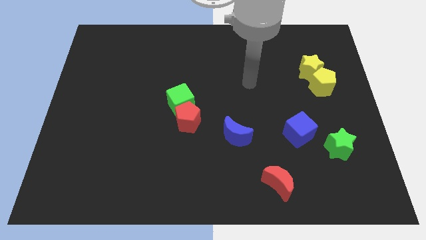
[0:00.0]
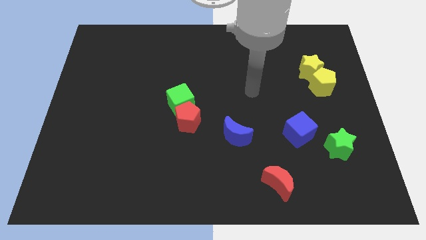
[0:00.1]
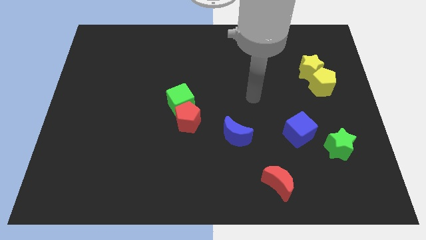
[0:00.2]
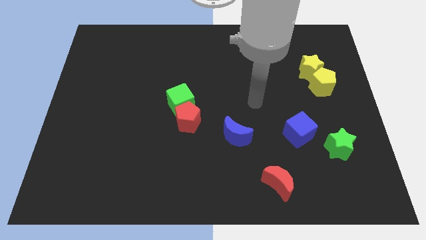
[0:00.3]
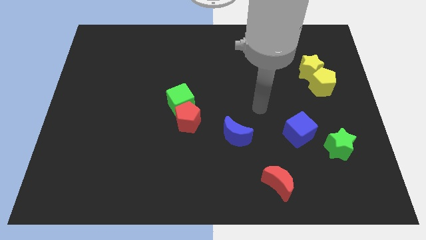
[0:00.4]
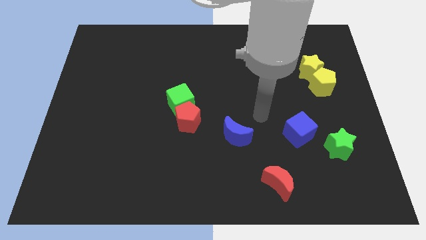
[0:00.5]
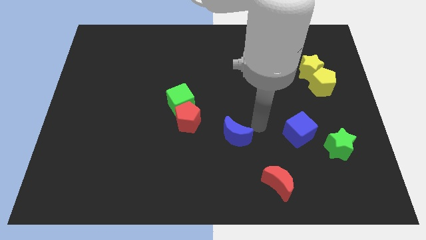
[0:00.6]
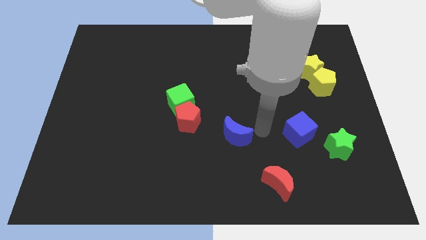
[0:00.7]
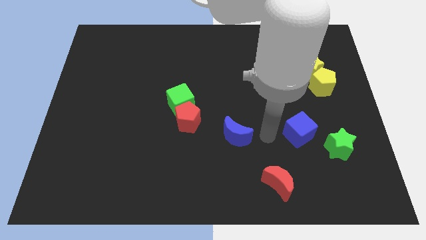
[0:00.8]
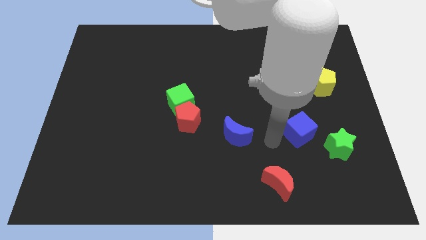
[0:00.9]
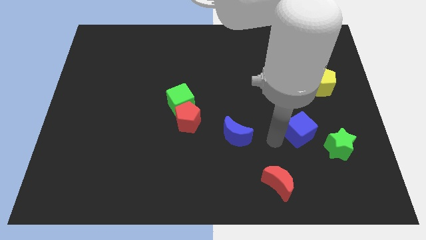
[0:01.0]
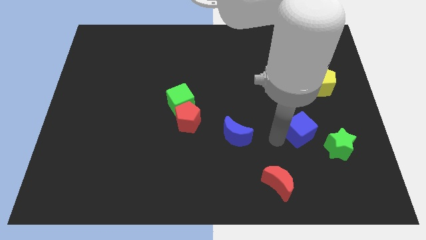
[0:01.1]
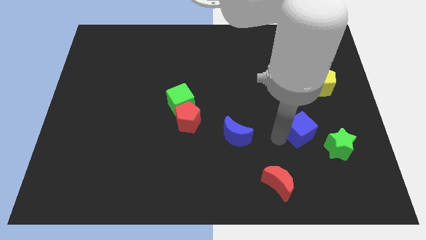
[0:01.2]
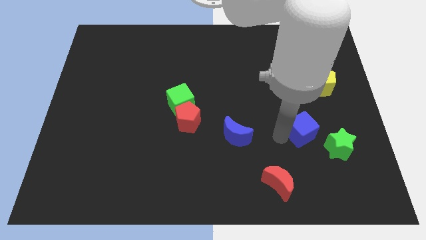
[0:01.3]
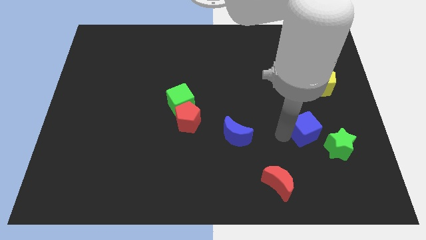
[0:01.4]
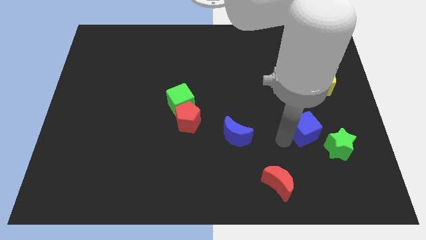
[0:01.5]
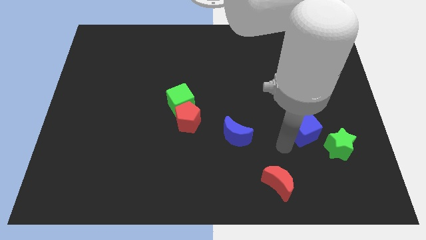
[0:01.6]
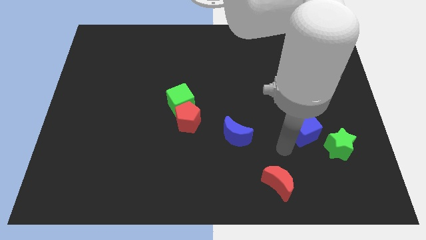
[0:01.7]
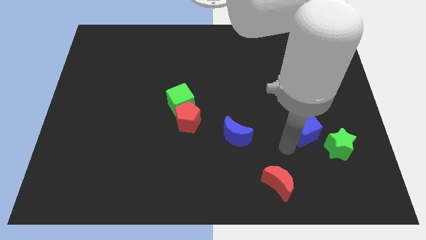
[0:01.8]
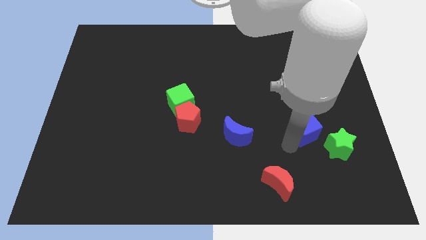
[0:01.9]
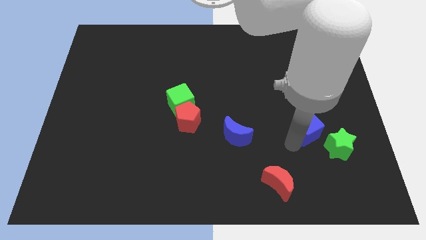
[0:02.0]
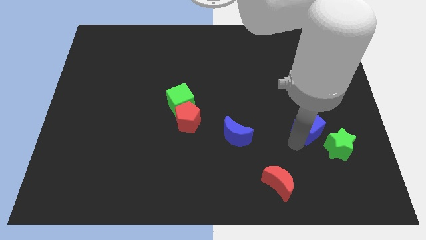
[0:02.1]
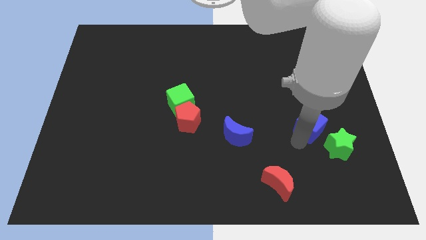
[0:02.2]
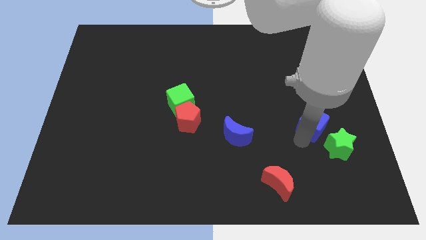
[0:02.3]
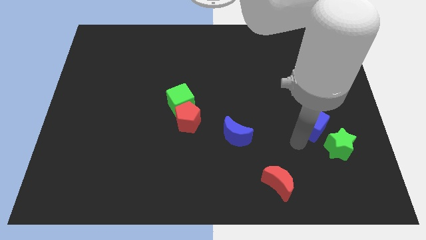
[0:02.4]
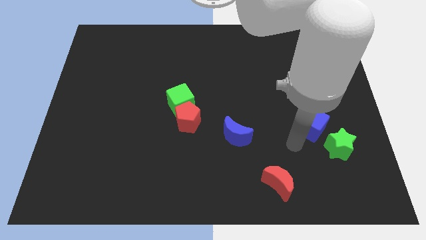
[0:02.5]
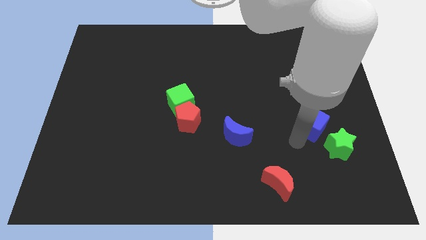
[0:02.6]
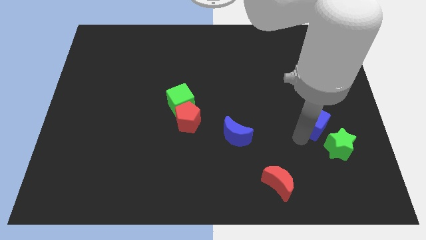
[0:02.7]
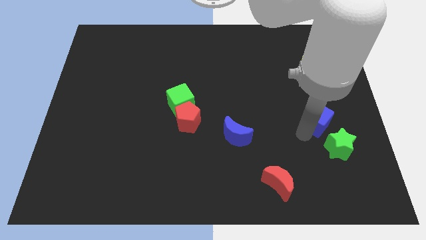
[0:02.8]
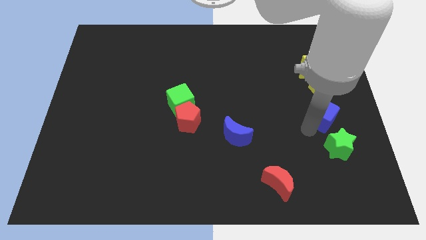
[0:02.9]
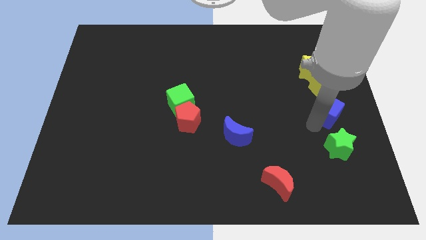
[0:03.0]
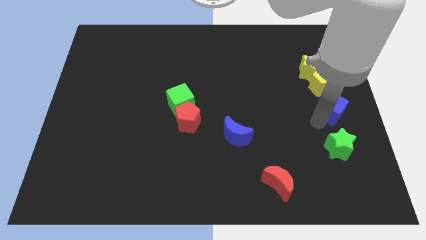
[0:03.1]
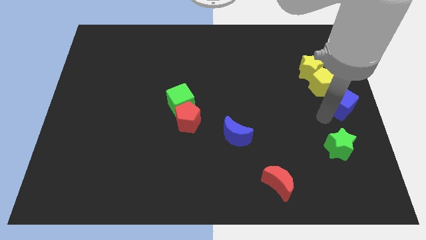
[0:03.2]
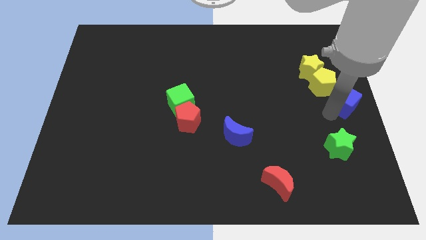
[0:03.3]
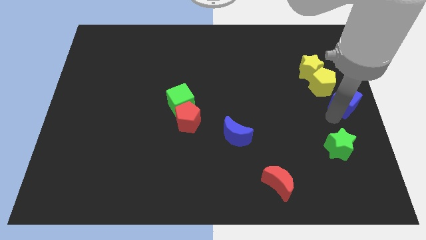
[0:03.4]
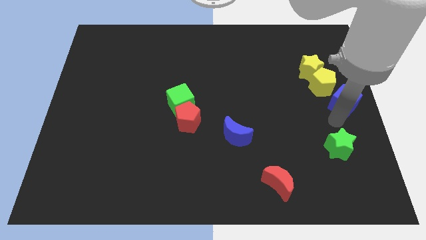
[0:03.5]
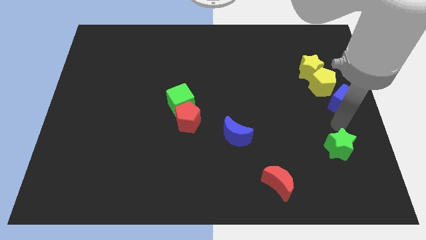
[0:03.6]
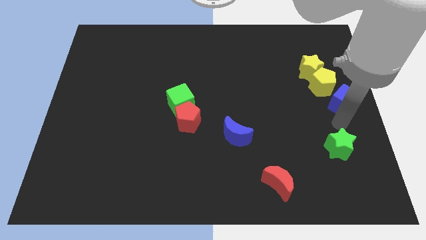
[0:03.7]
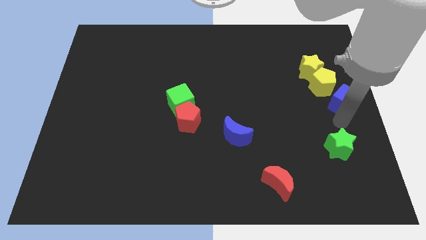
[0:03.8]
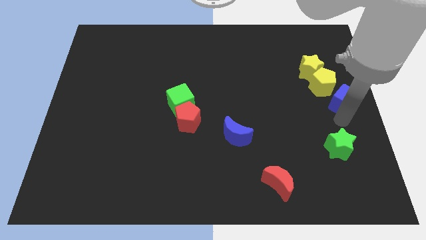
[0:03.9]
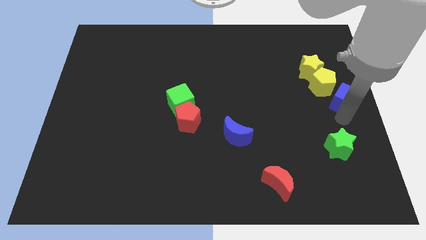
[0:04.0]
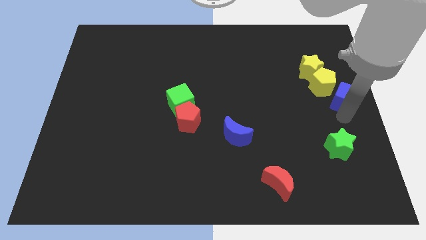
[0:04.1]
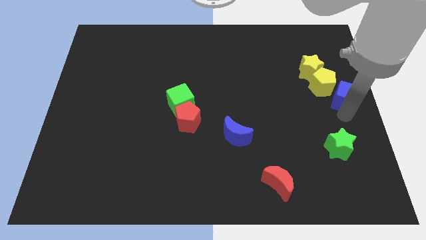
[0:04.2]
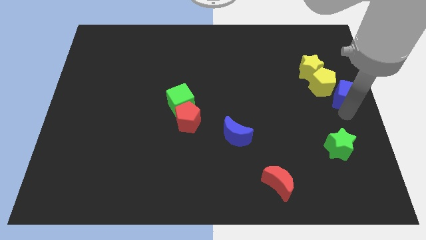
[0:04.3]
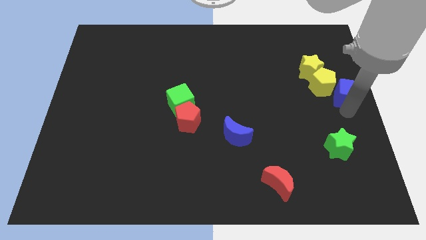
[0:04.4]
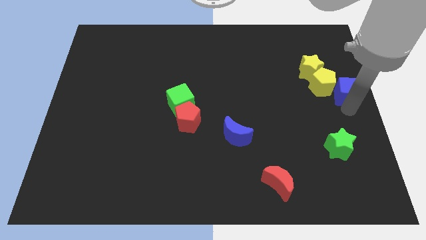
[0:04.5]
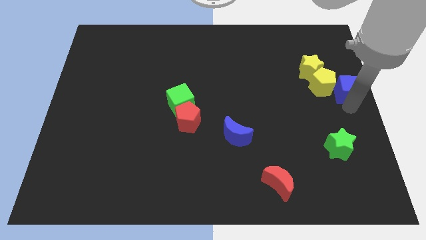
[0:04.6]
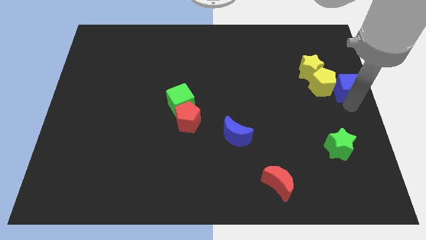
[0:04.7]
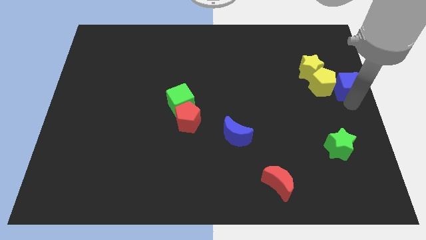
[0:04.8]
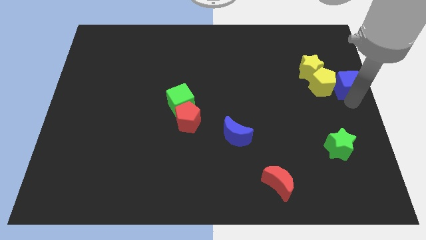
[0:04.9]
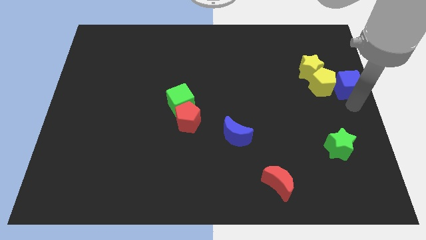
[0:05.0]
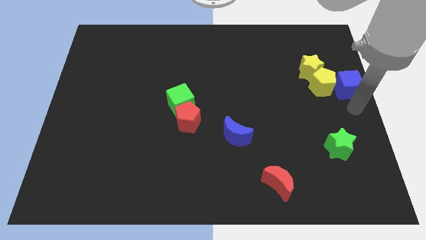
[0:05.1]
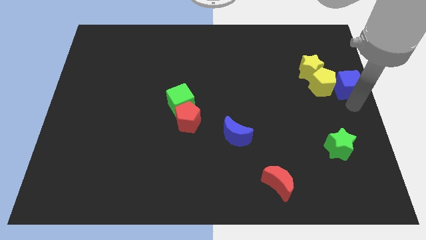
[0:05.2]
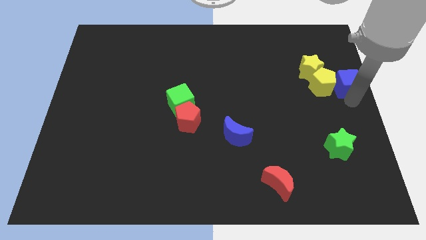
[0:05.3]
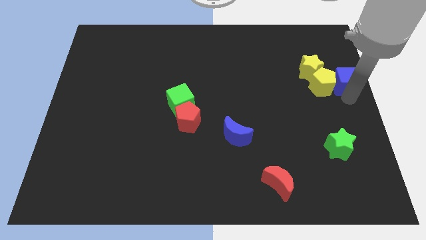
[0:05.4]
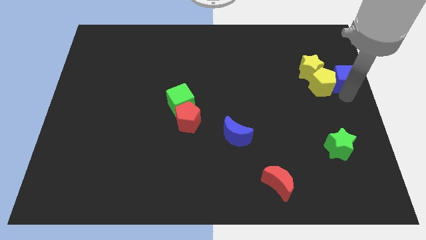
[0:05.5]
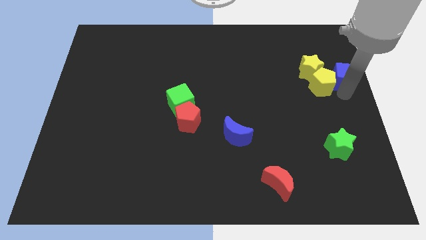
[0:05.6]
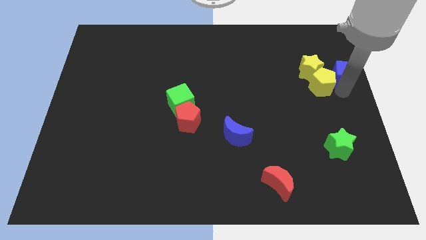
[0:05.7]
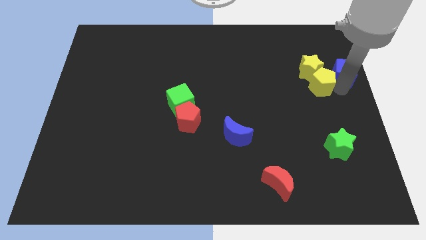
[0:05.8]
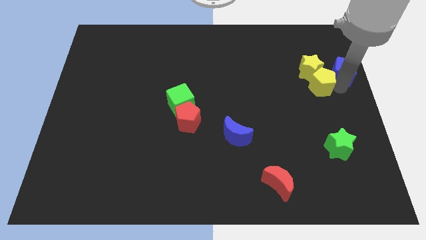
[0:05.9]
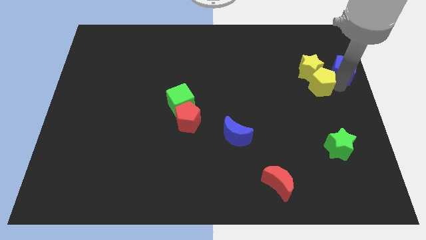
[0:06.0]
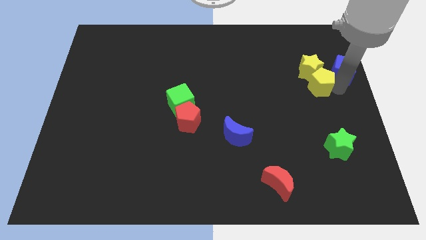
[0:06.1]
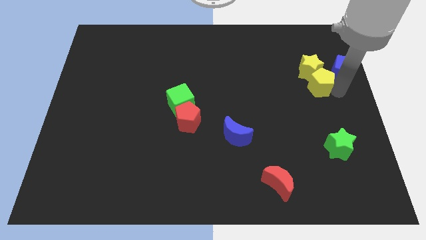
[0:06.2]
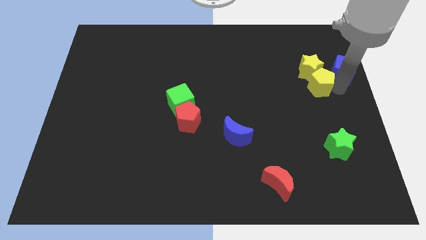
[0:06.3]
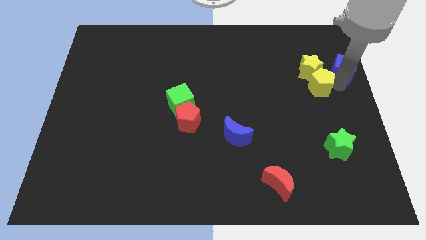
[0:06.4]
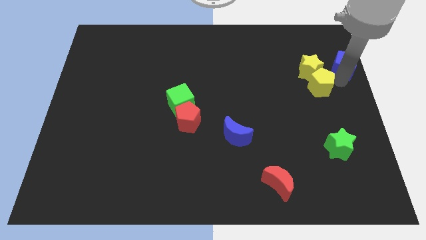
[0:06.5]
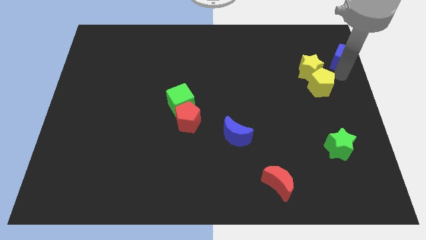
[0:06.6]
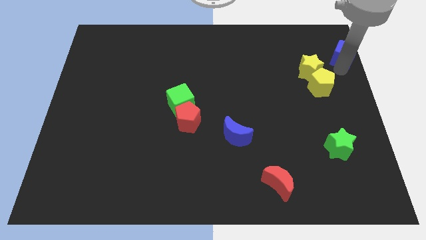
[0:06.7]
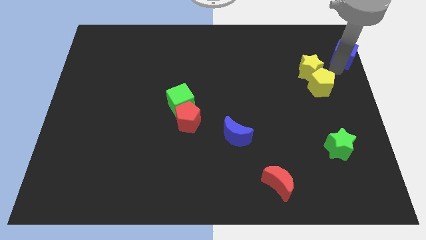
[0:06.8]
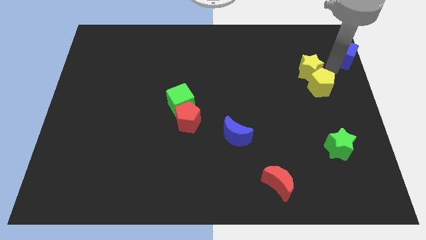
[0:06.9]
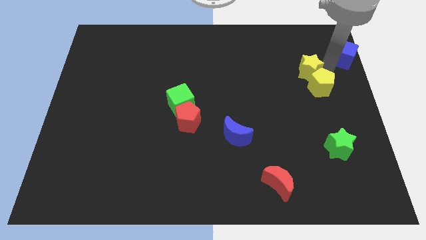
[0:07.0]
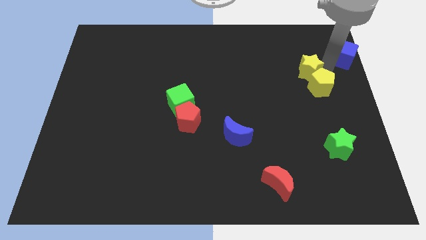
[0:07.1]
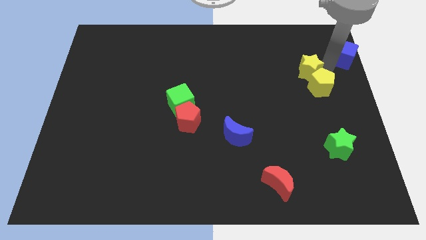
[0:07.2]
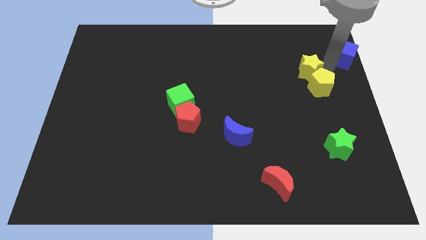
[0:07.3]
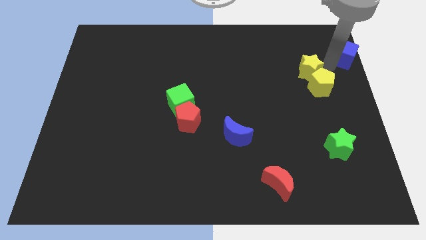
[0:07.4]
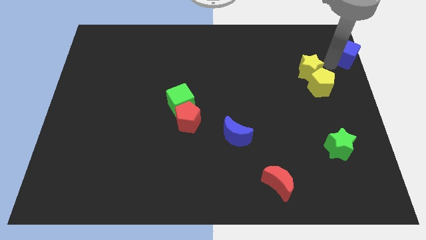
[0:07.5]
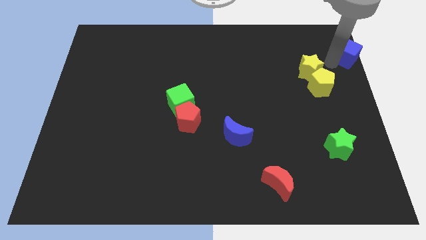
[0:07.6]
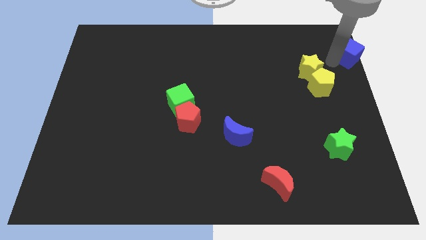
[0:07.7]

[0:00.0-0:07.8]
put the blue cube to the top right corner
